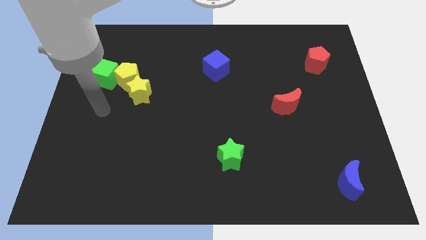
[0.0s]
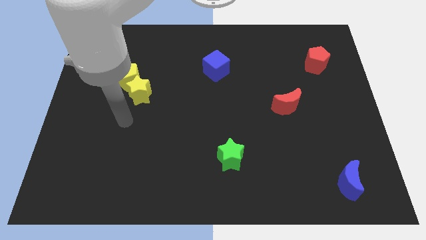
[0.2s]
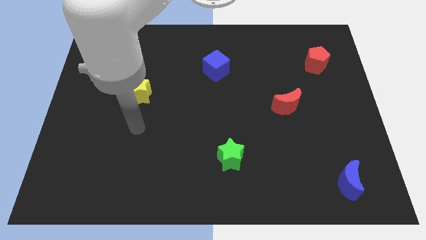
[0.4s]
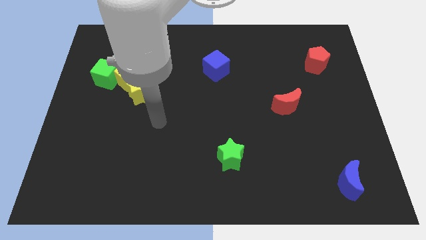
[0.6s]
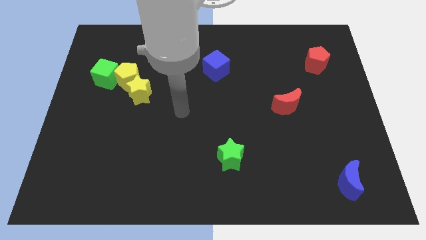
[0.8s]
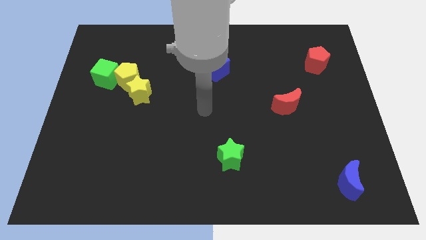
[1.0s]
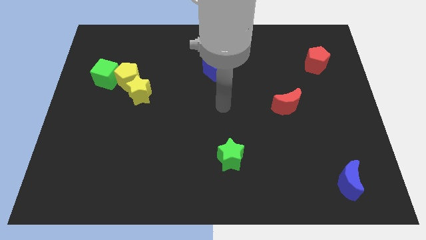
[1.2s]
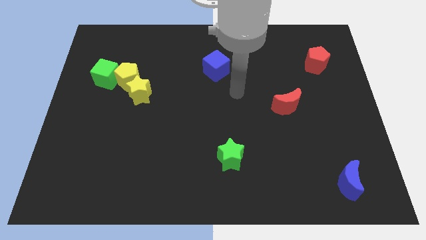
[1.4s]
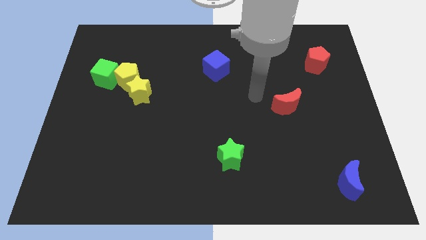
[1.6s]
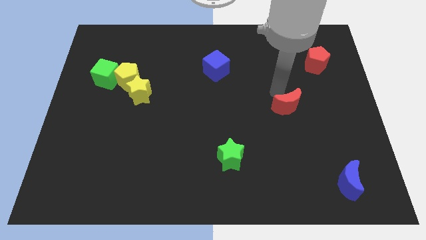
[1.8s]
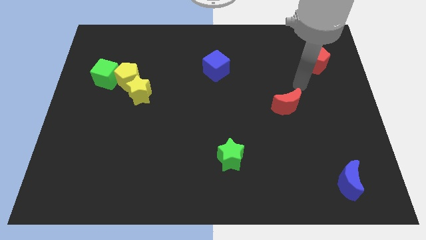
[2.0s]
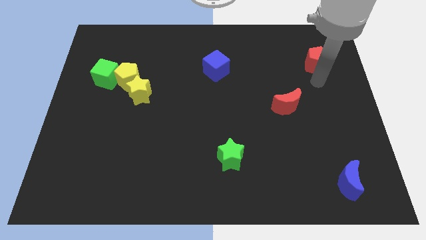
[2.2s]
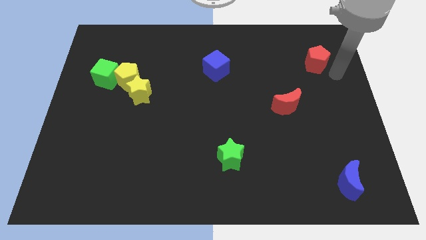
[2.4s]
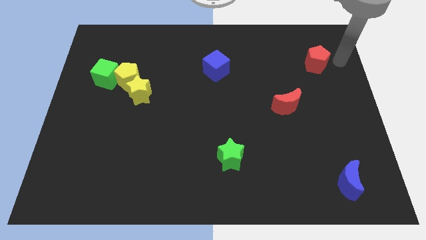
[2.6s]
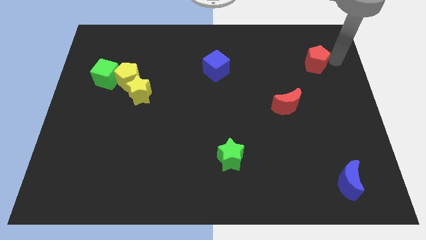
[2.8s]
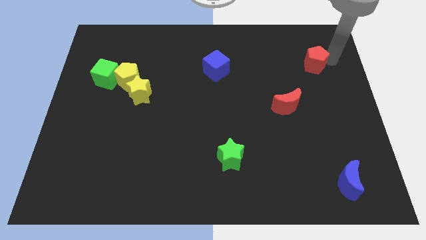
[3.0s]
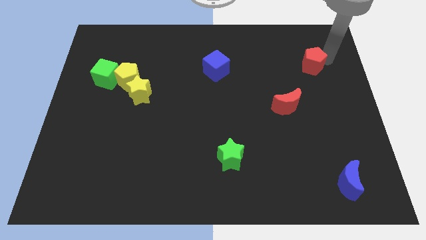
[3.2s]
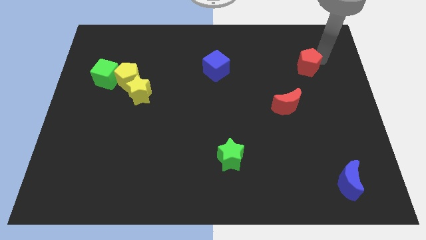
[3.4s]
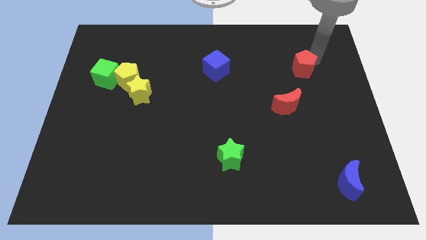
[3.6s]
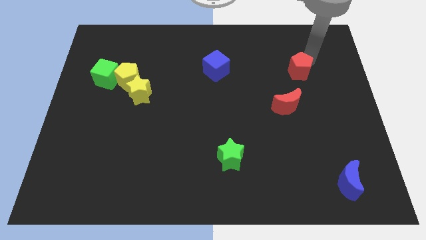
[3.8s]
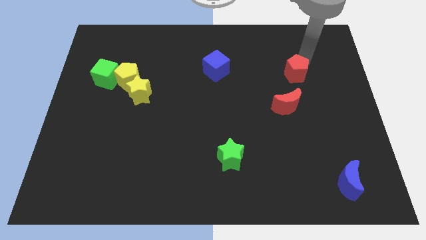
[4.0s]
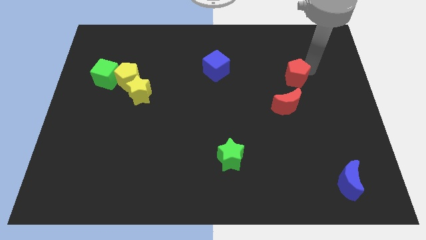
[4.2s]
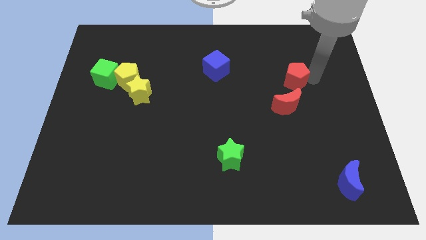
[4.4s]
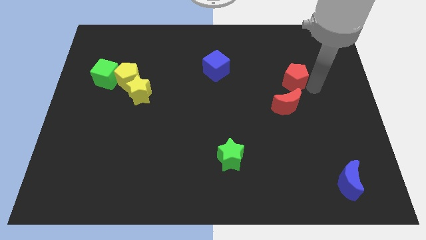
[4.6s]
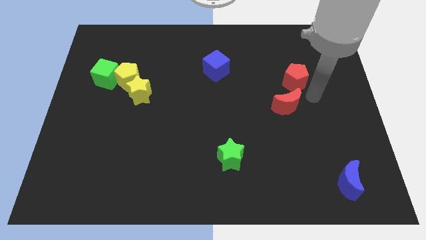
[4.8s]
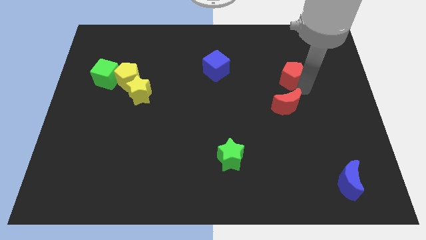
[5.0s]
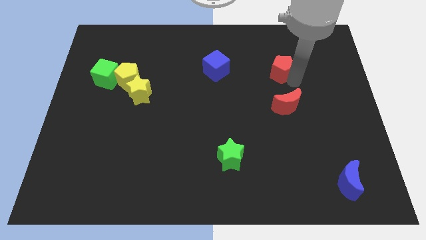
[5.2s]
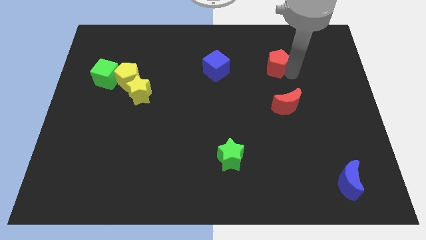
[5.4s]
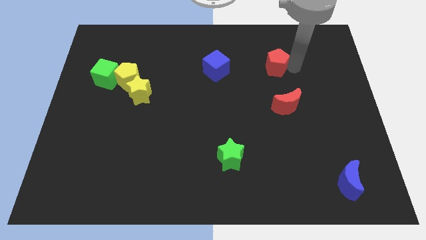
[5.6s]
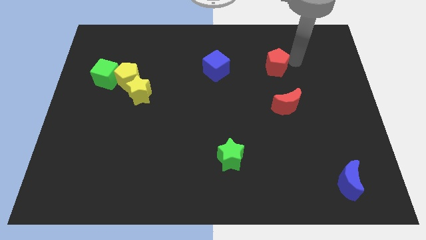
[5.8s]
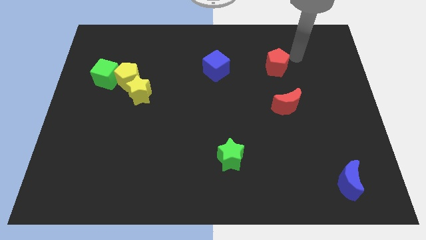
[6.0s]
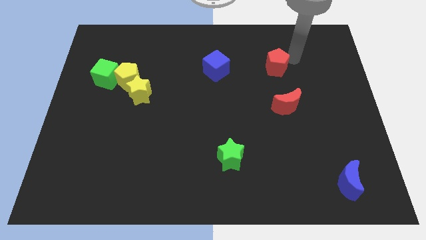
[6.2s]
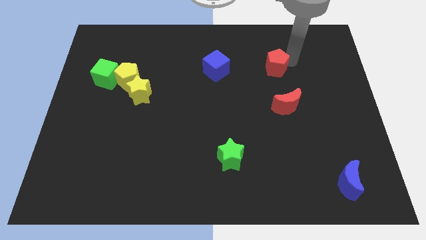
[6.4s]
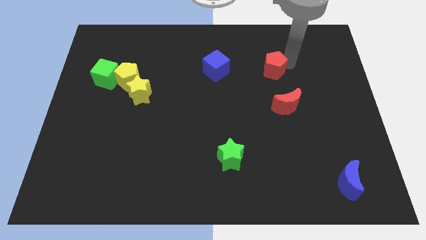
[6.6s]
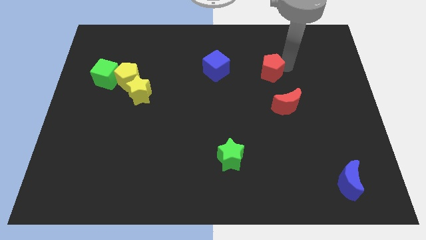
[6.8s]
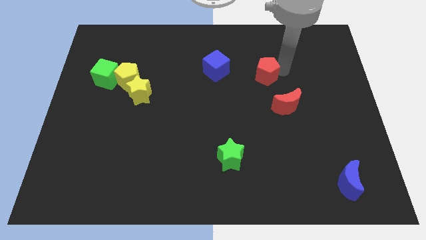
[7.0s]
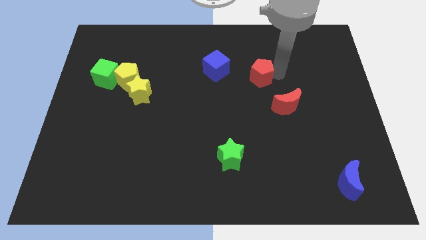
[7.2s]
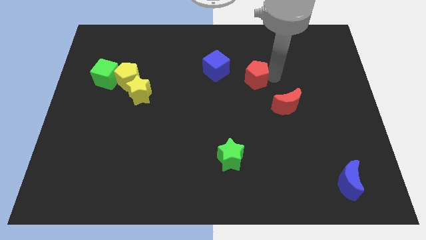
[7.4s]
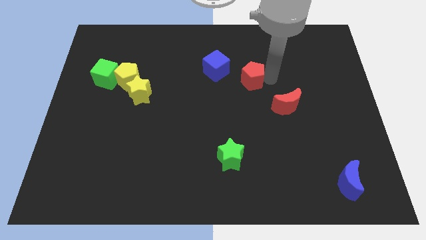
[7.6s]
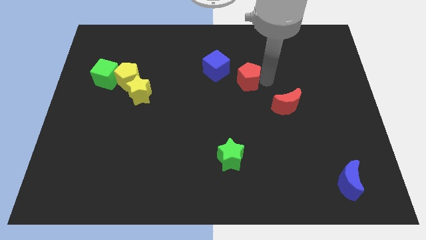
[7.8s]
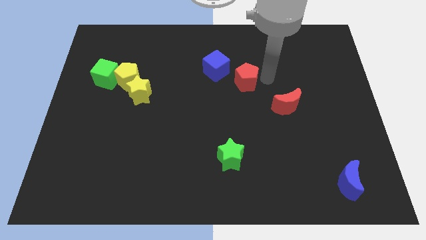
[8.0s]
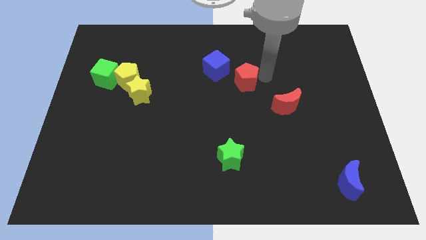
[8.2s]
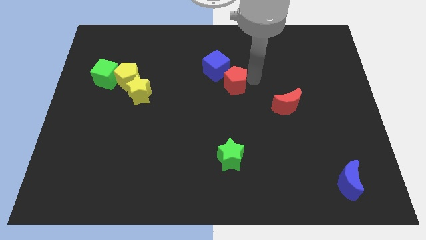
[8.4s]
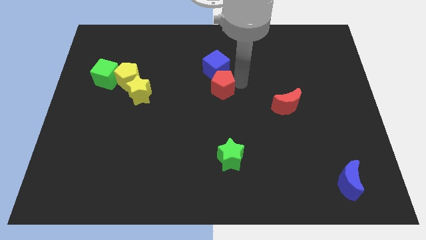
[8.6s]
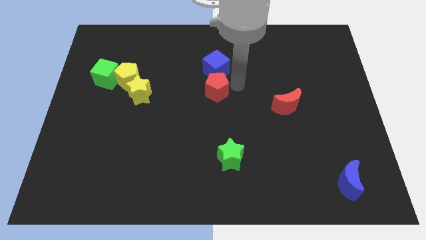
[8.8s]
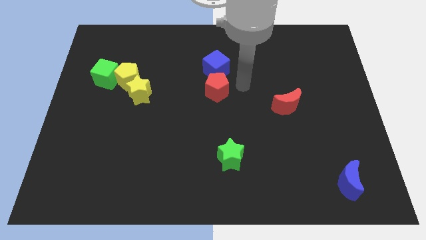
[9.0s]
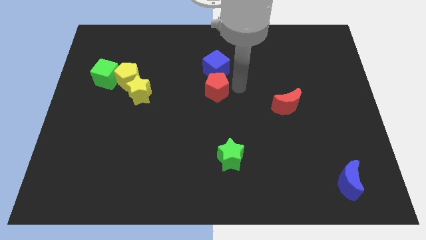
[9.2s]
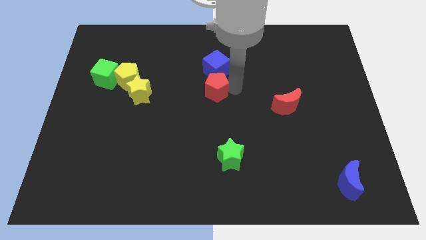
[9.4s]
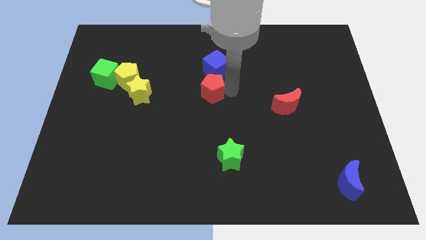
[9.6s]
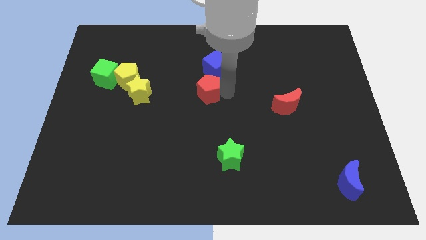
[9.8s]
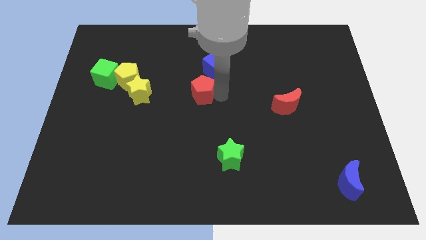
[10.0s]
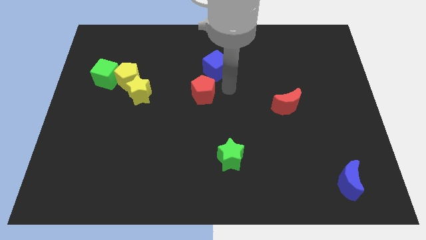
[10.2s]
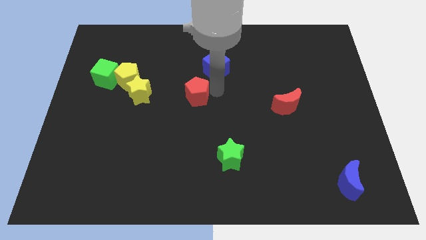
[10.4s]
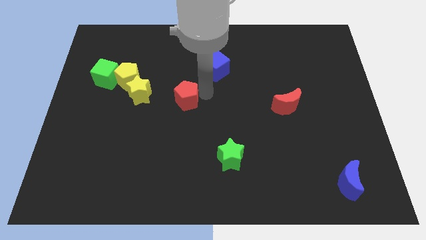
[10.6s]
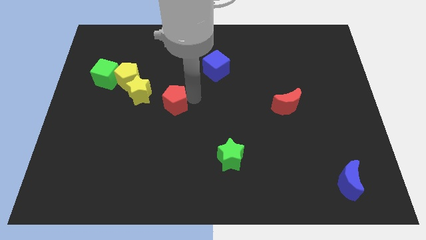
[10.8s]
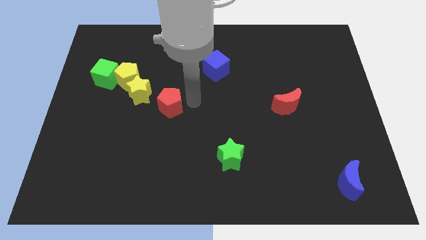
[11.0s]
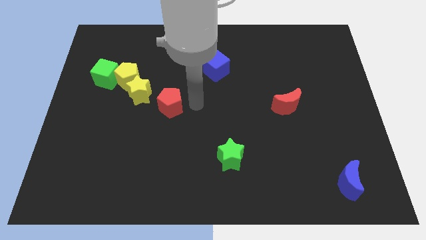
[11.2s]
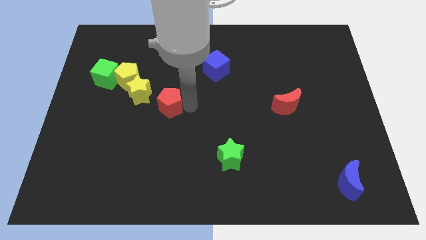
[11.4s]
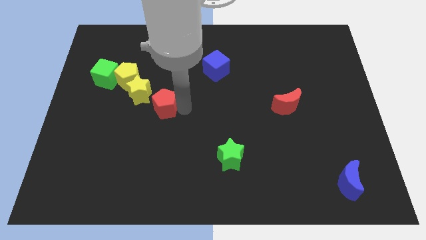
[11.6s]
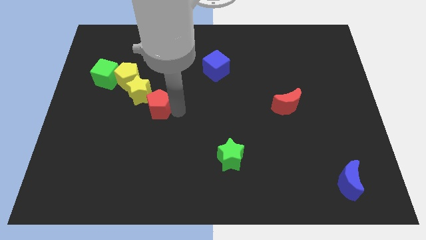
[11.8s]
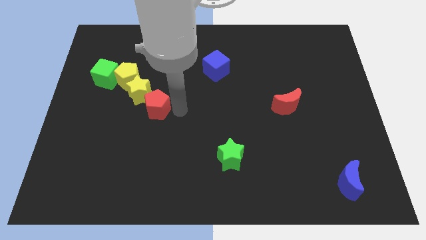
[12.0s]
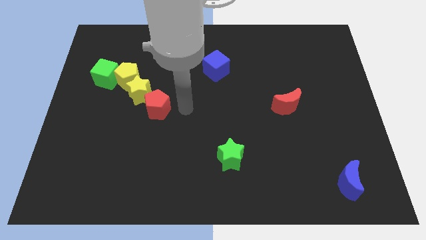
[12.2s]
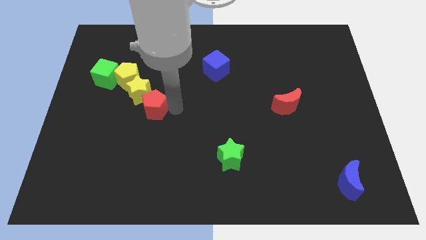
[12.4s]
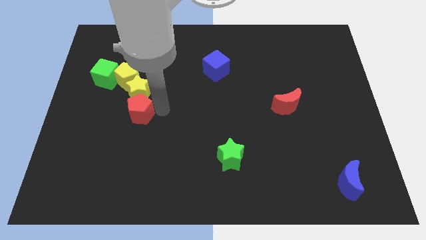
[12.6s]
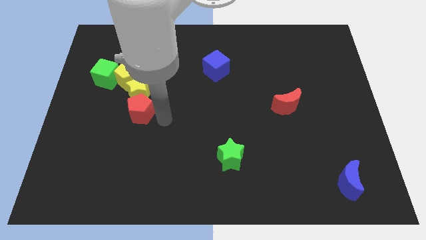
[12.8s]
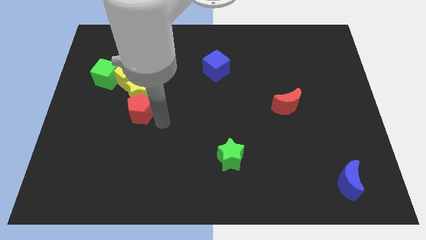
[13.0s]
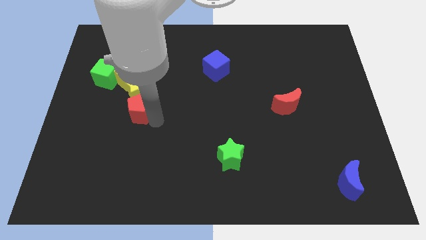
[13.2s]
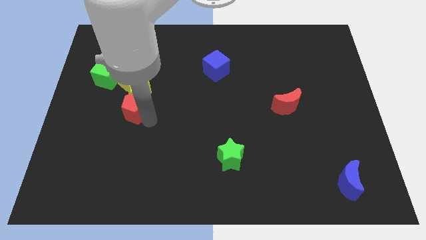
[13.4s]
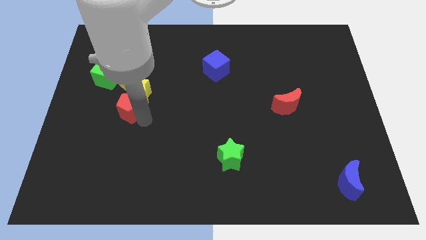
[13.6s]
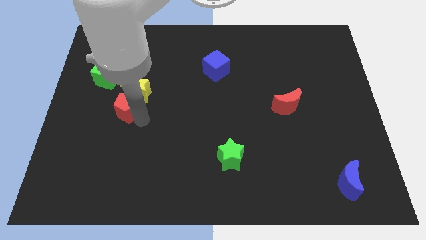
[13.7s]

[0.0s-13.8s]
move the red pentagon to the bottom right side of the green cube

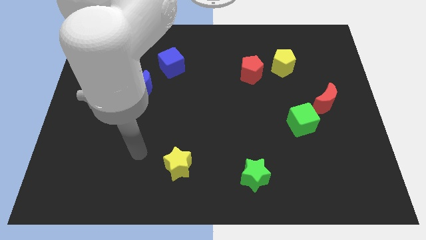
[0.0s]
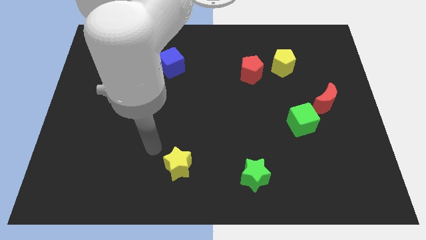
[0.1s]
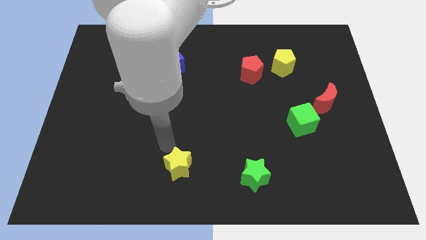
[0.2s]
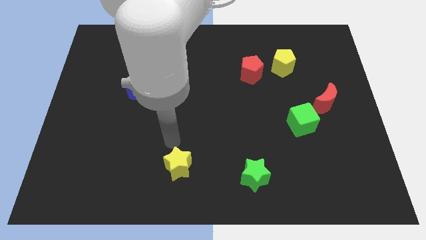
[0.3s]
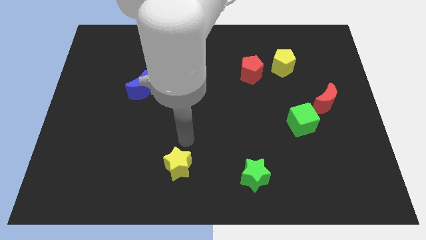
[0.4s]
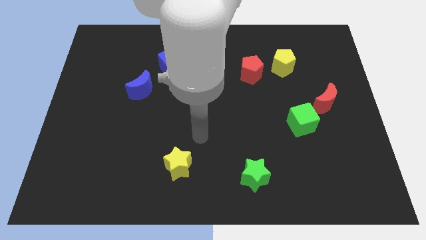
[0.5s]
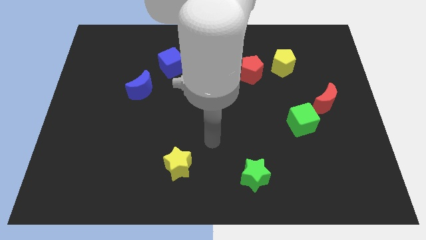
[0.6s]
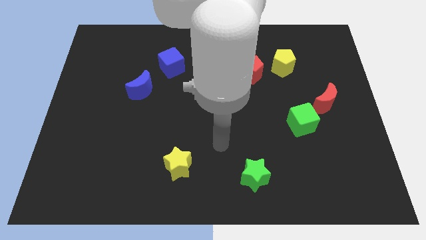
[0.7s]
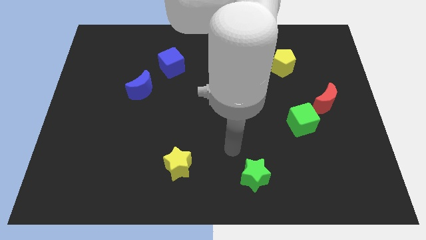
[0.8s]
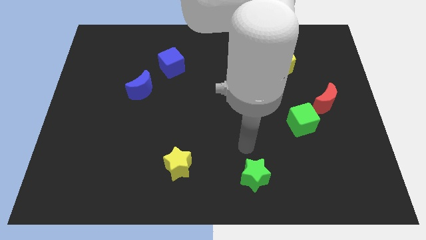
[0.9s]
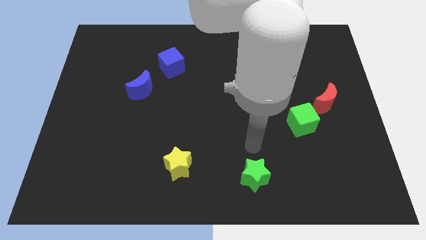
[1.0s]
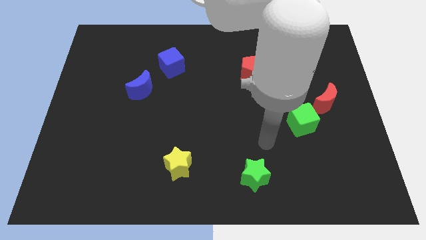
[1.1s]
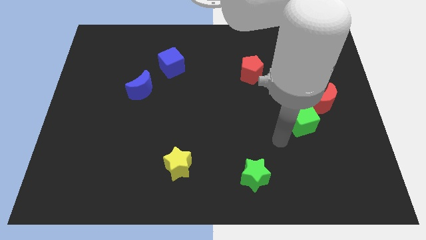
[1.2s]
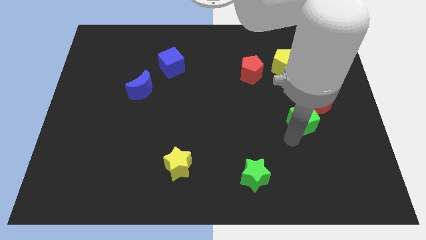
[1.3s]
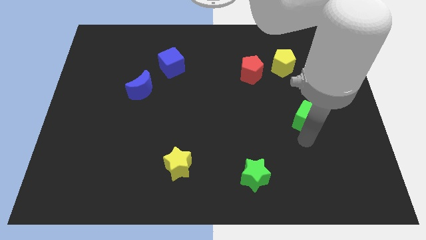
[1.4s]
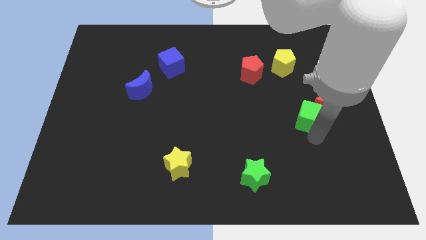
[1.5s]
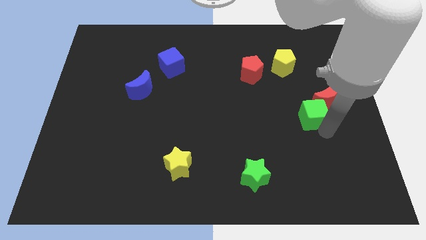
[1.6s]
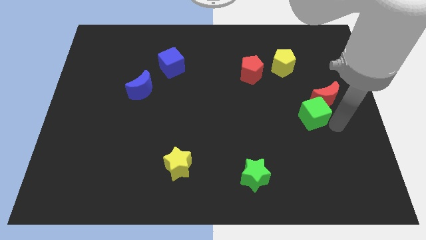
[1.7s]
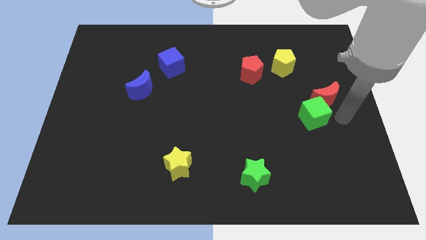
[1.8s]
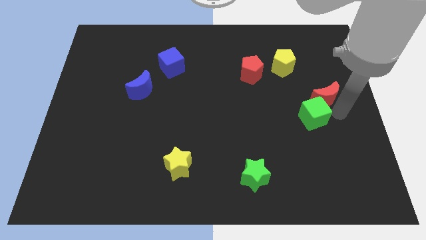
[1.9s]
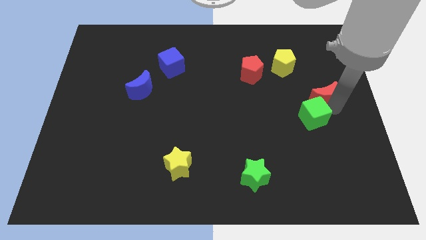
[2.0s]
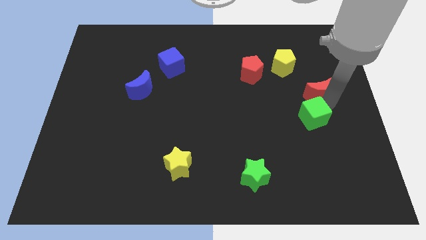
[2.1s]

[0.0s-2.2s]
put the red moon to the bottom right side of the yellow pentagon
